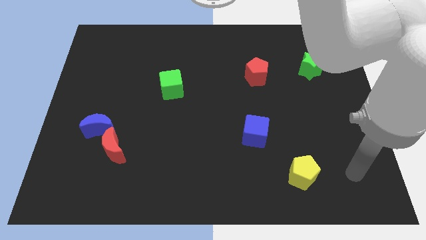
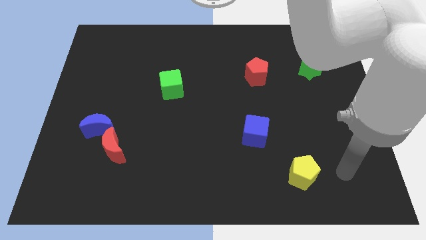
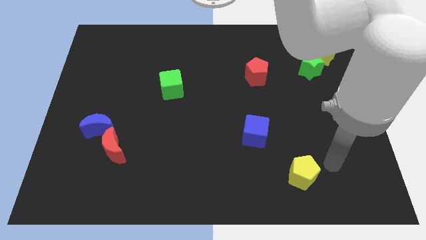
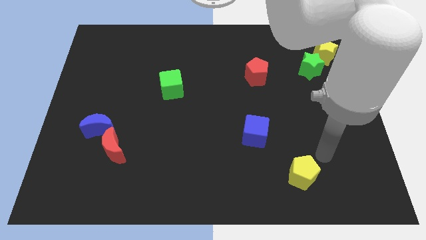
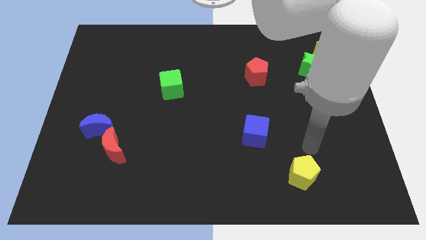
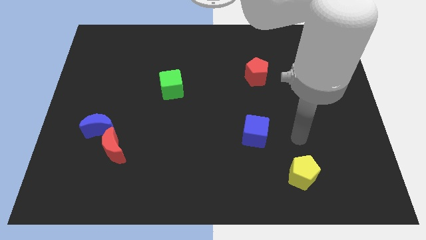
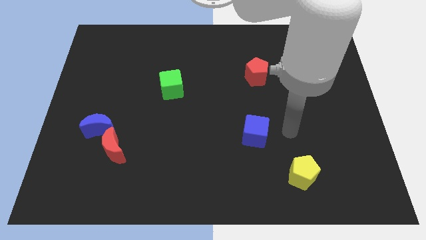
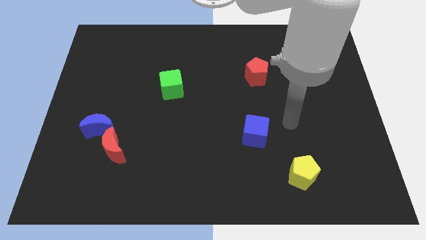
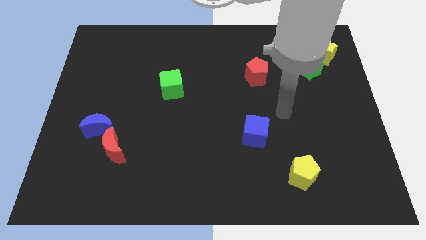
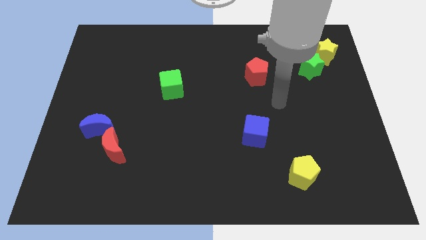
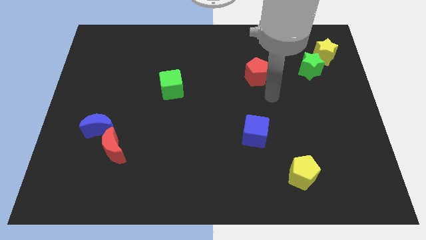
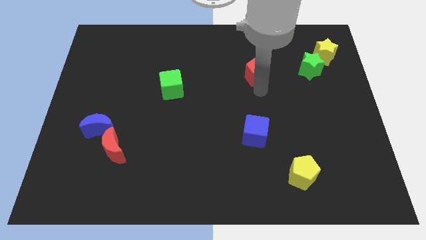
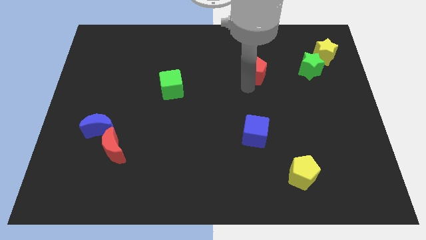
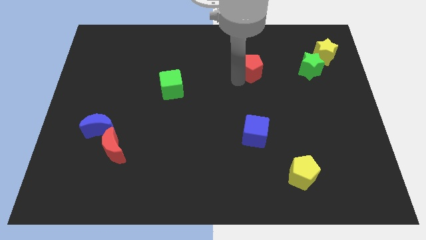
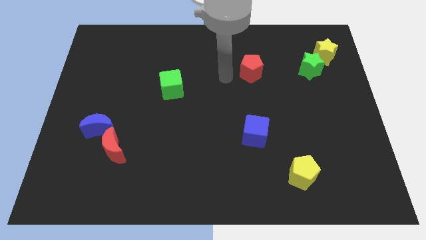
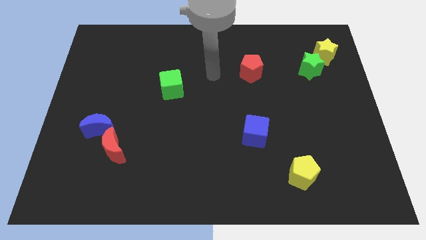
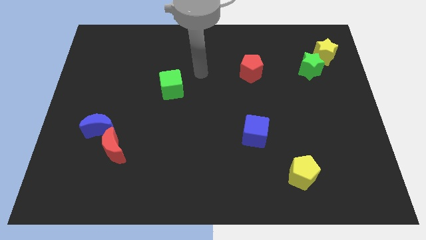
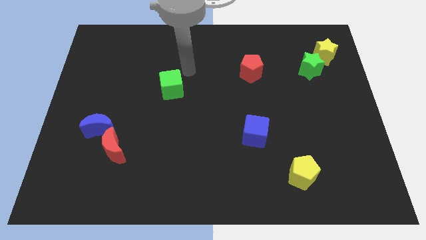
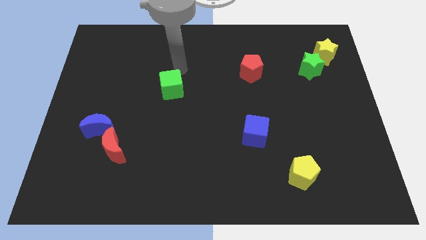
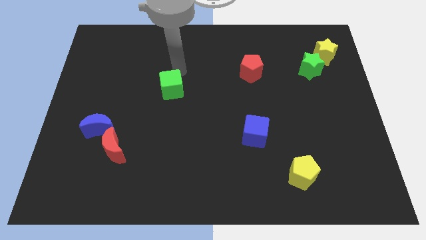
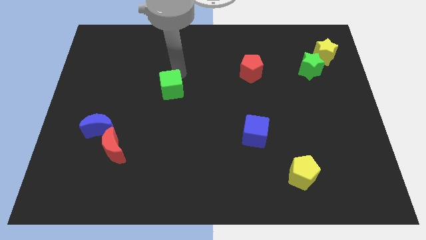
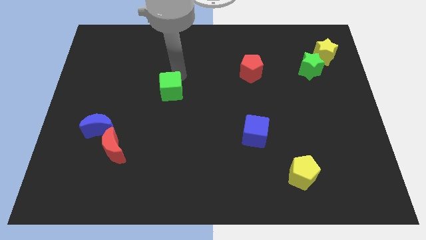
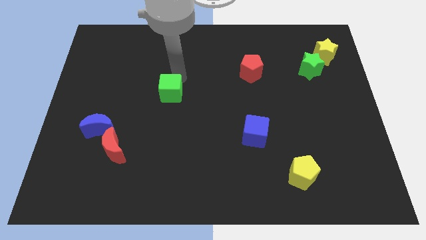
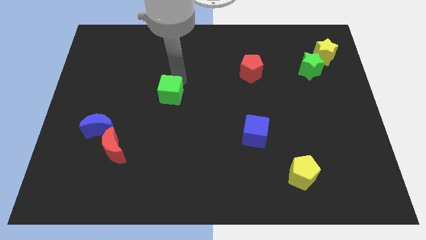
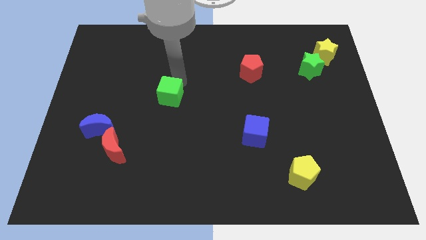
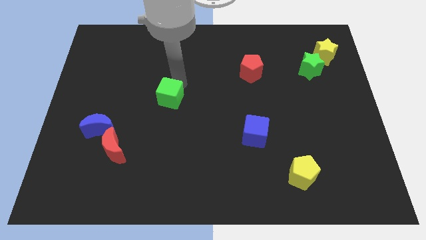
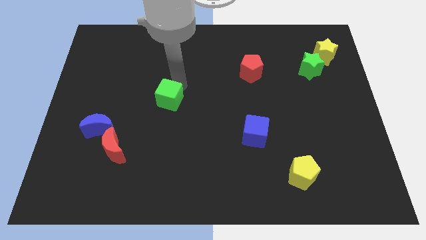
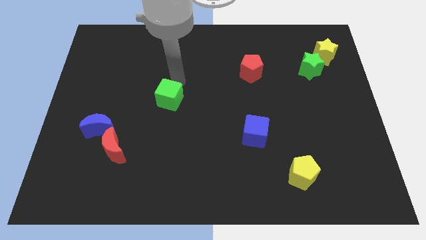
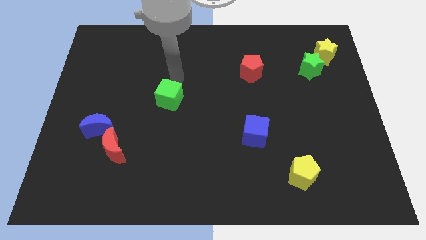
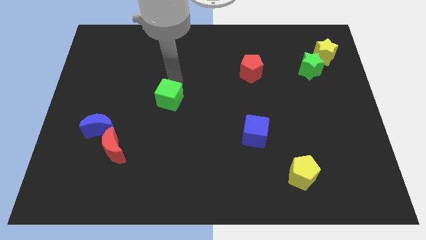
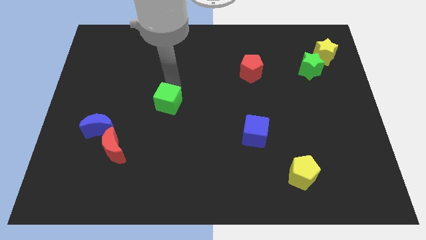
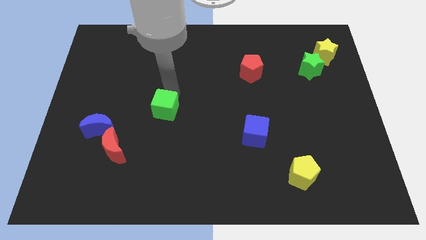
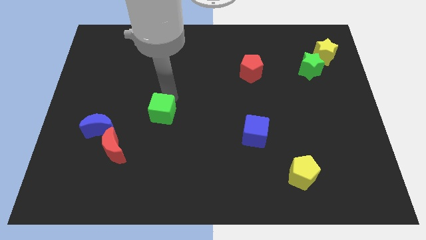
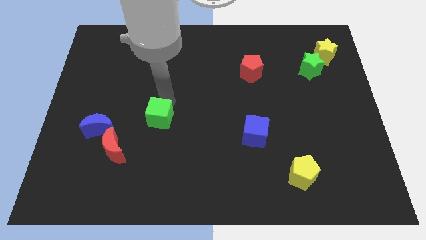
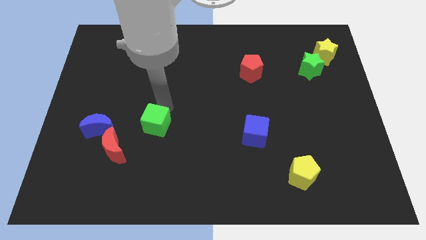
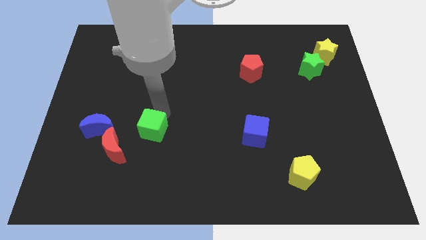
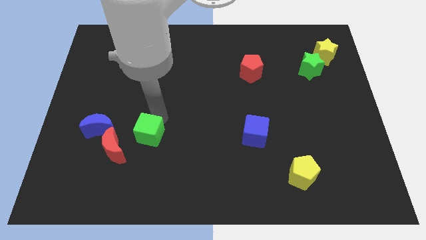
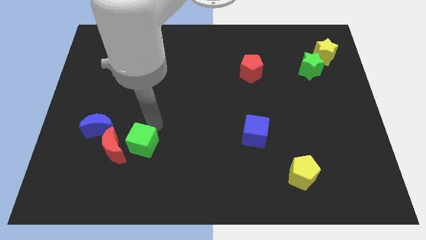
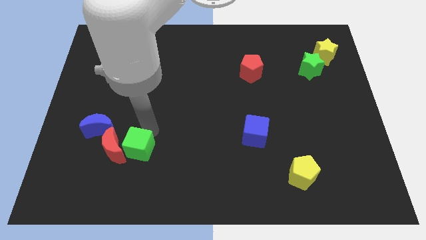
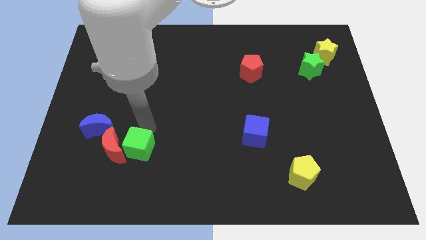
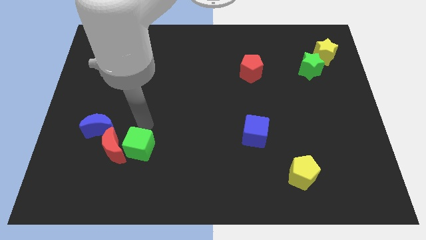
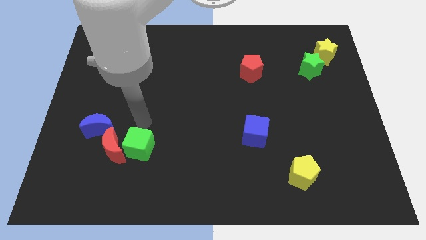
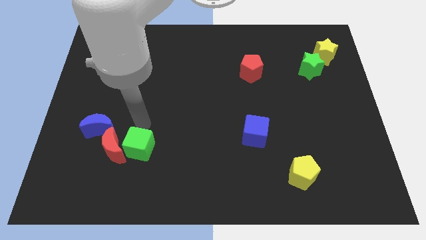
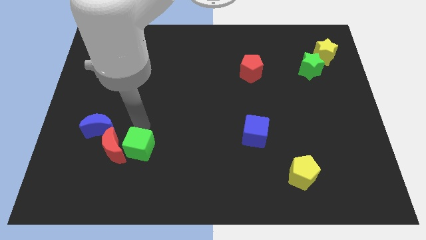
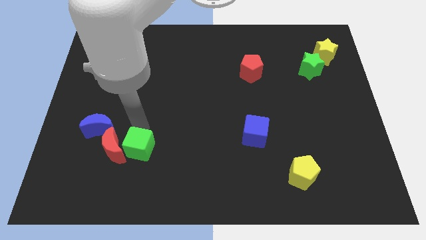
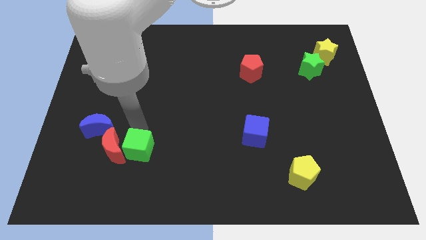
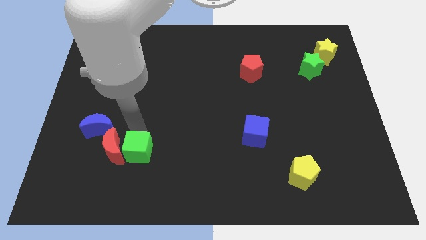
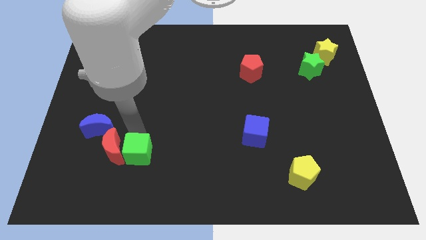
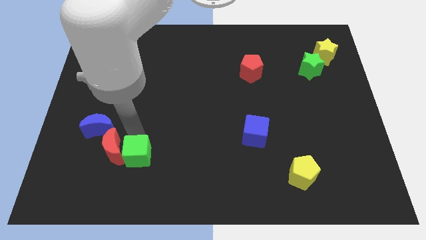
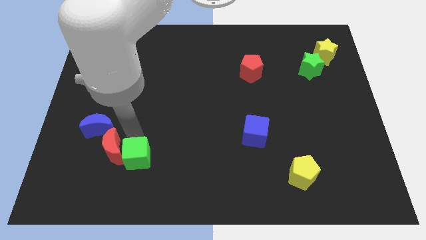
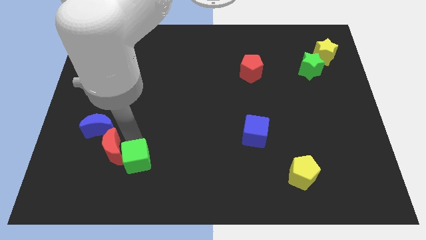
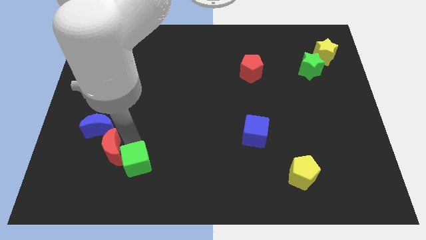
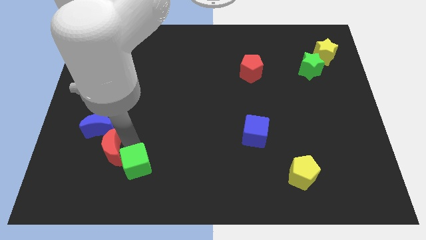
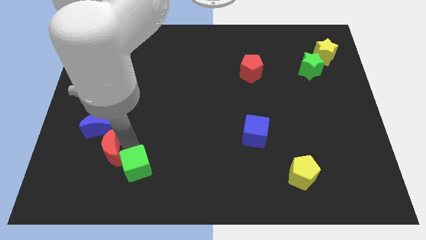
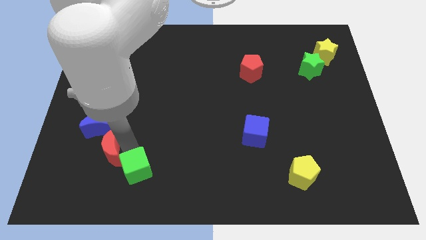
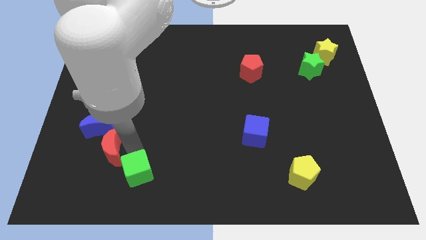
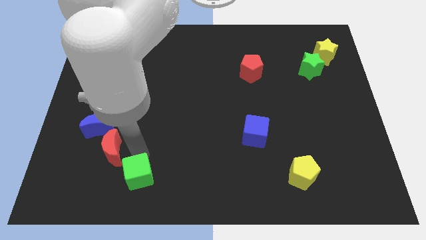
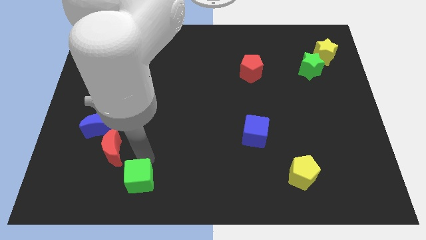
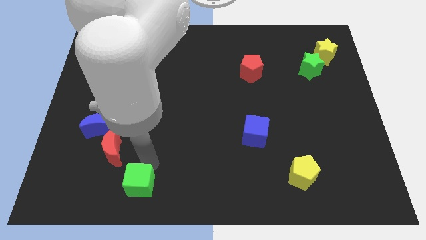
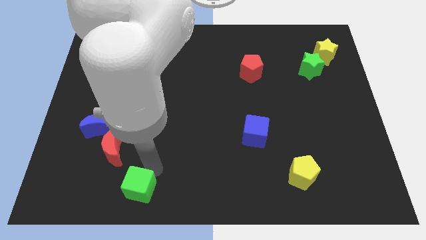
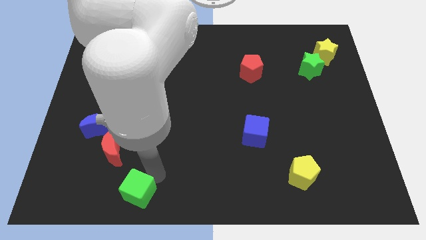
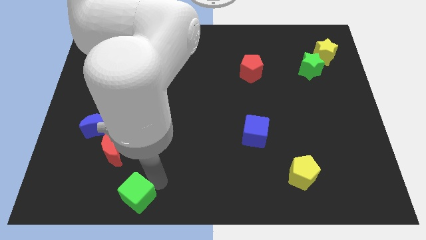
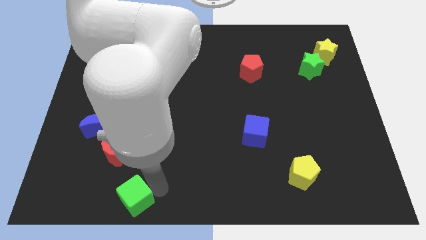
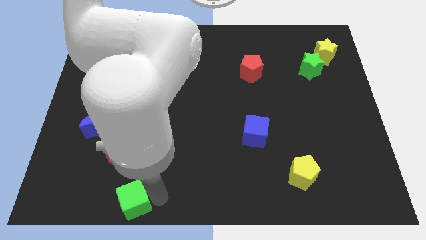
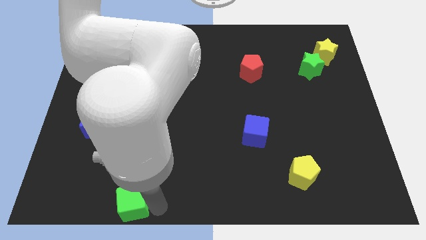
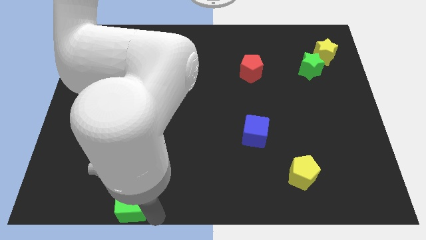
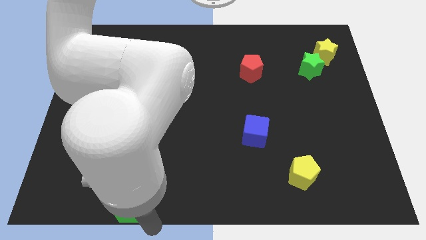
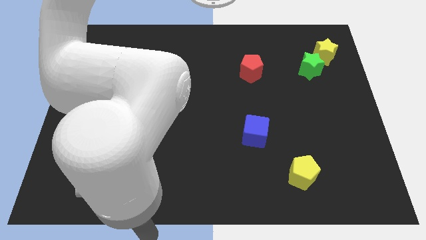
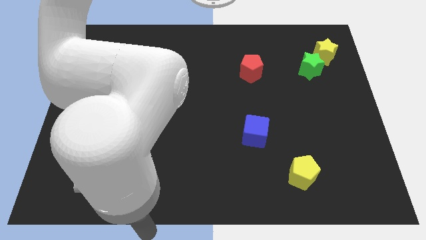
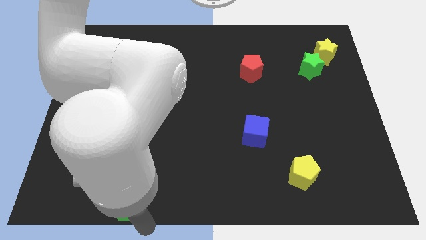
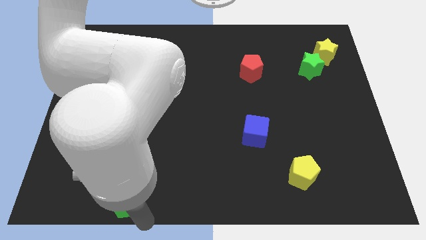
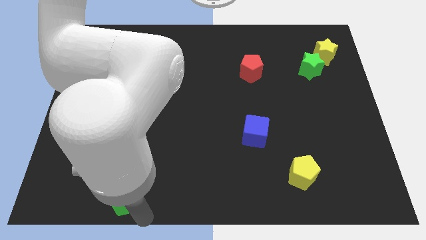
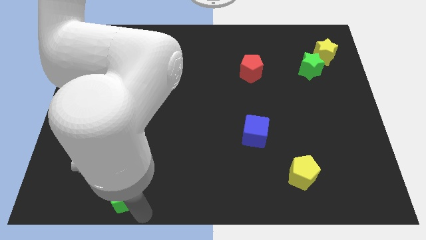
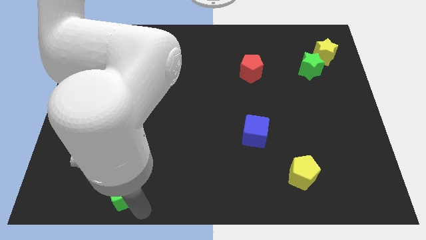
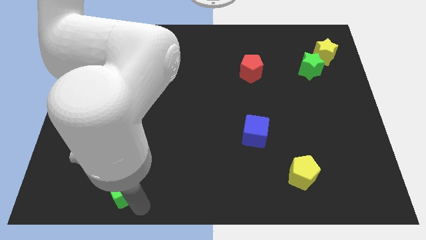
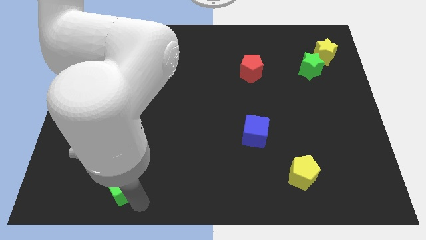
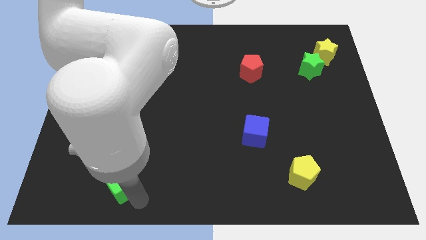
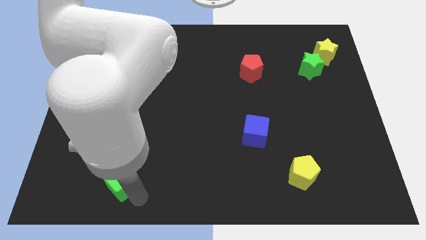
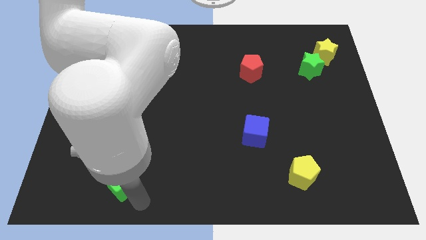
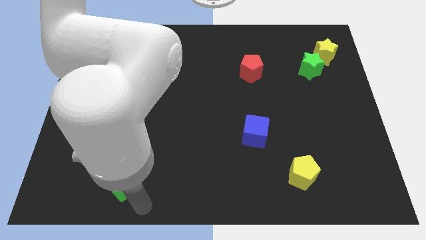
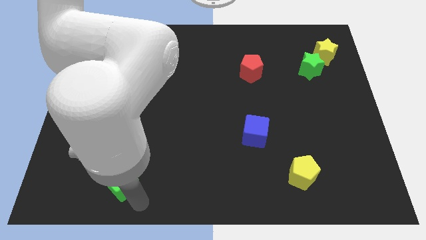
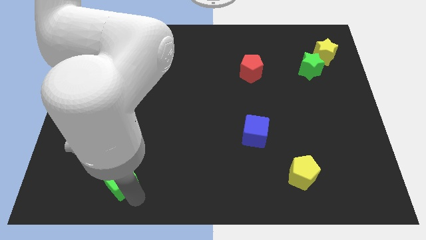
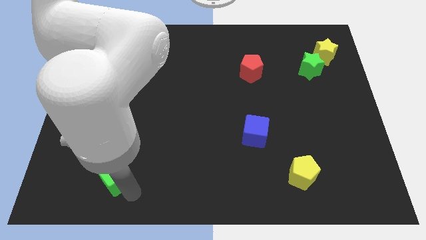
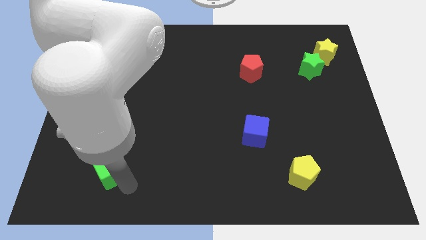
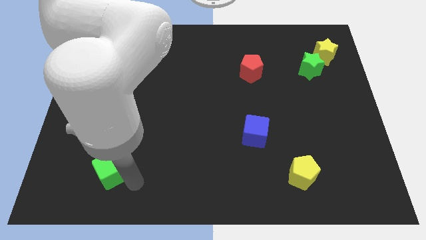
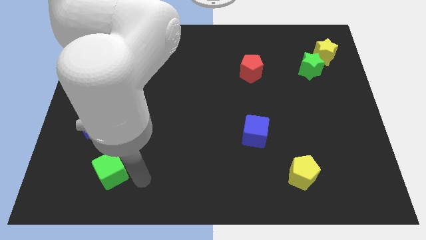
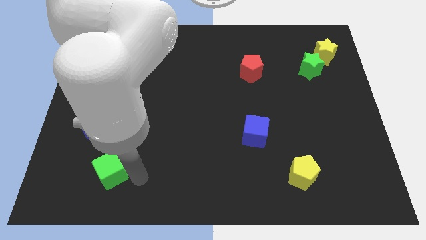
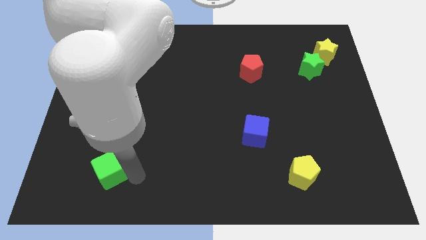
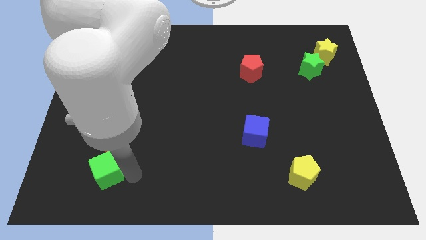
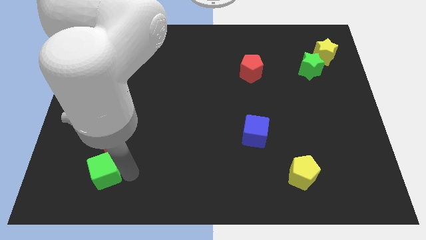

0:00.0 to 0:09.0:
put the green cube to the bottom left of the red moon
